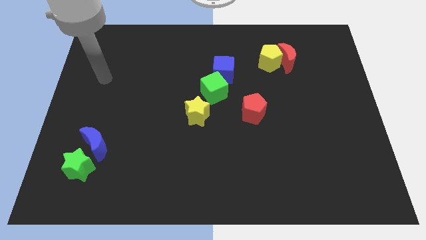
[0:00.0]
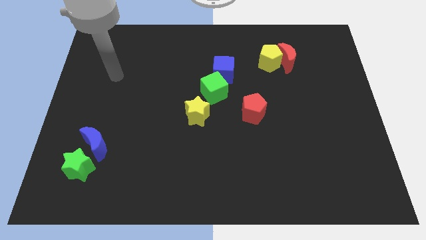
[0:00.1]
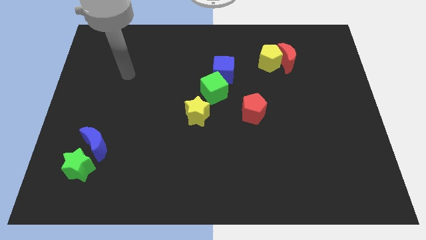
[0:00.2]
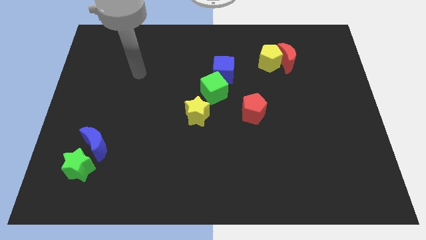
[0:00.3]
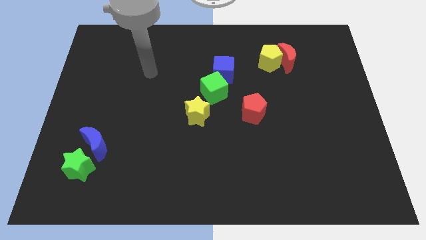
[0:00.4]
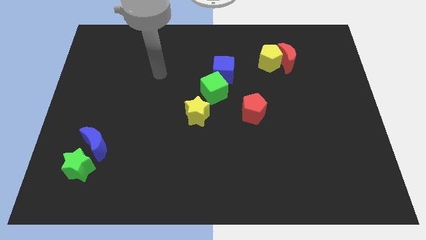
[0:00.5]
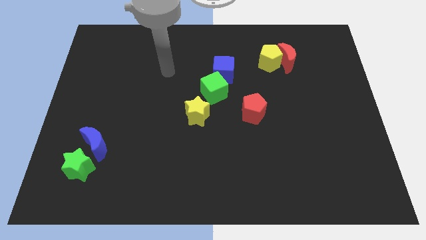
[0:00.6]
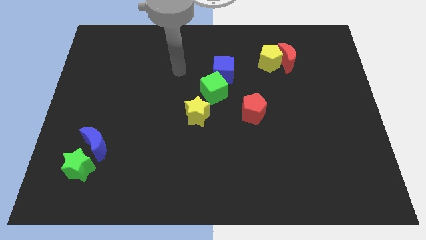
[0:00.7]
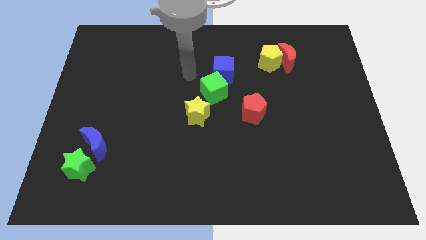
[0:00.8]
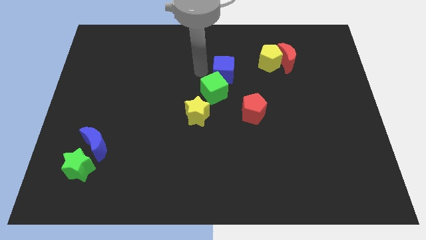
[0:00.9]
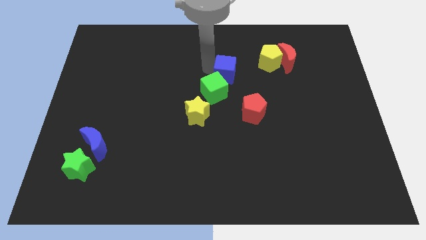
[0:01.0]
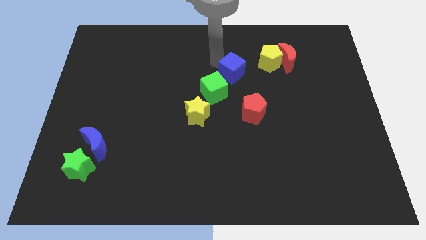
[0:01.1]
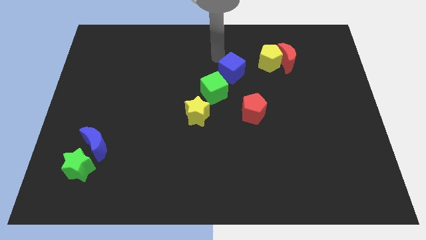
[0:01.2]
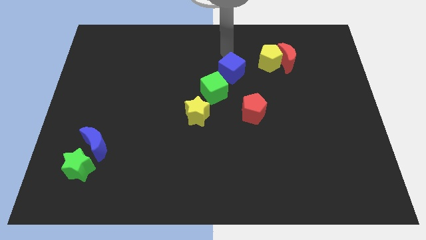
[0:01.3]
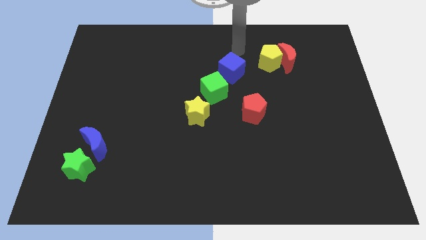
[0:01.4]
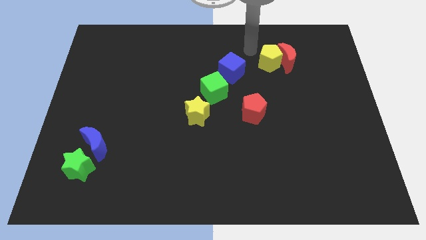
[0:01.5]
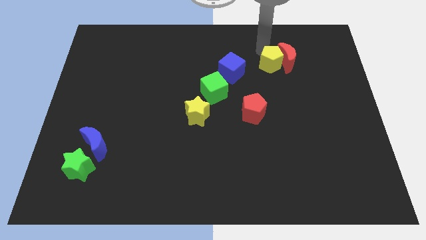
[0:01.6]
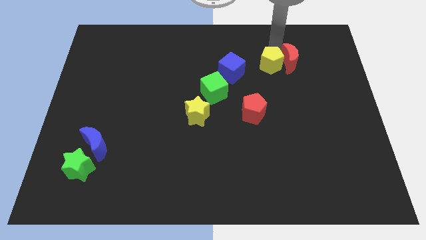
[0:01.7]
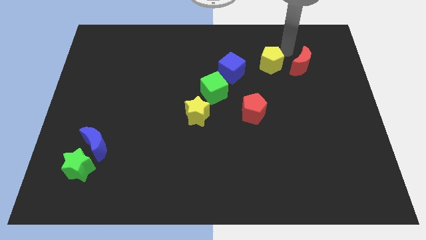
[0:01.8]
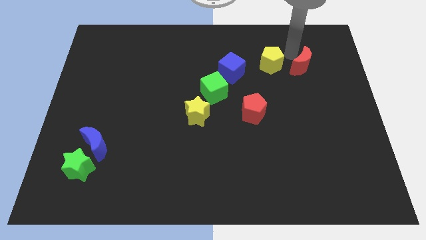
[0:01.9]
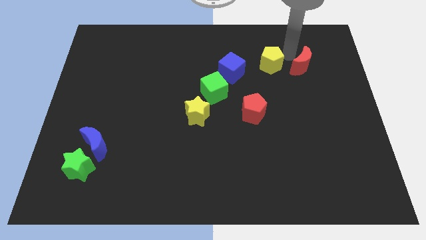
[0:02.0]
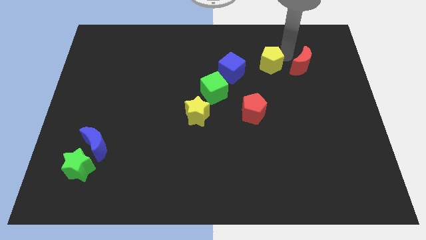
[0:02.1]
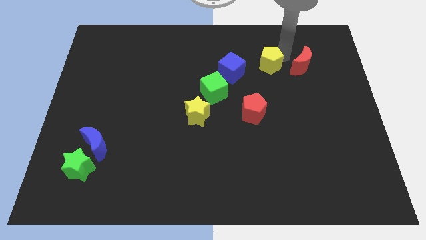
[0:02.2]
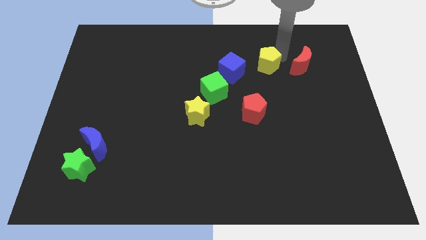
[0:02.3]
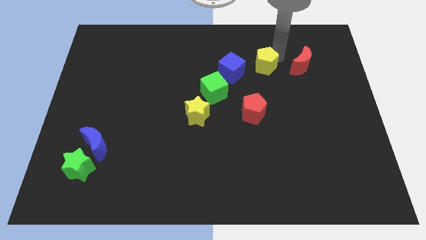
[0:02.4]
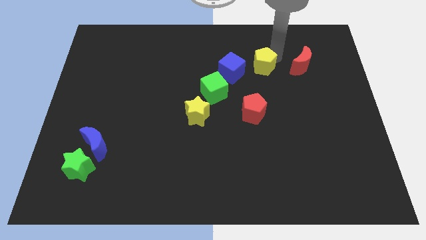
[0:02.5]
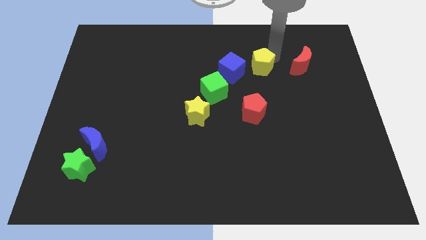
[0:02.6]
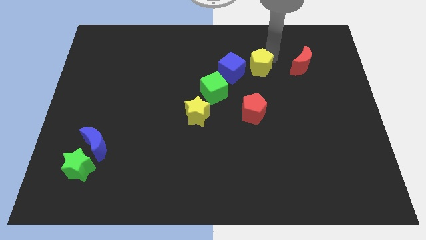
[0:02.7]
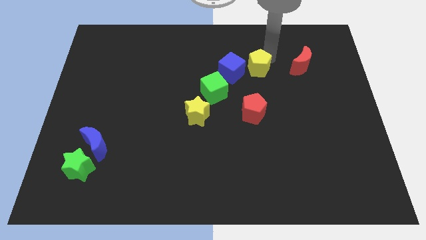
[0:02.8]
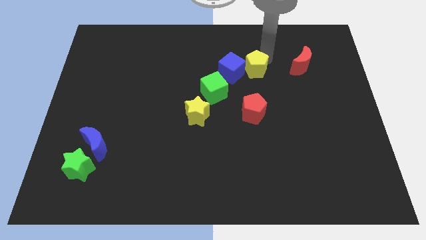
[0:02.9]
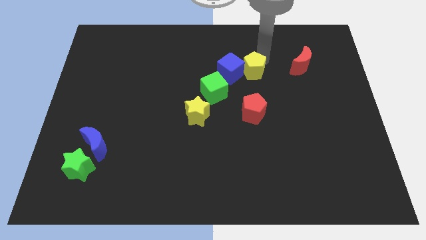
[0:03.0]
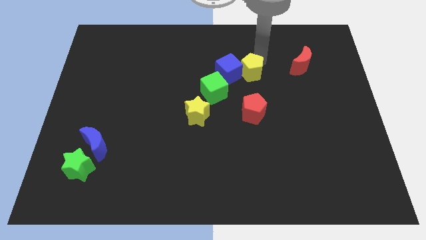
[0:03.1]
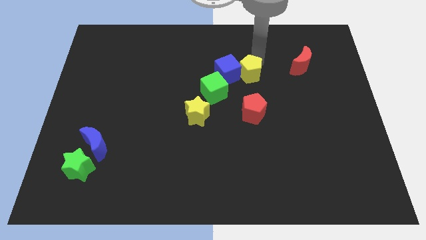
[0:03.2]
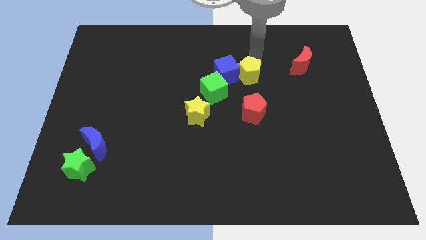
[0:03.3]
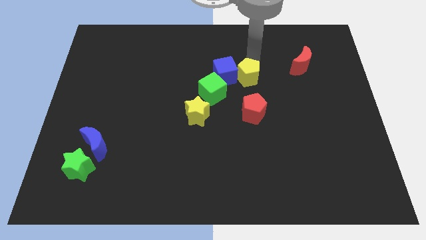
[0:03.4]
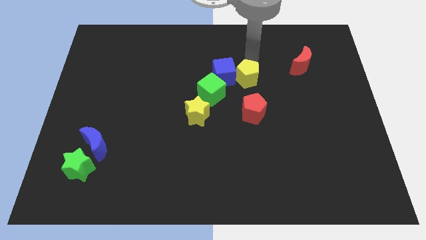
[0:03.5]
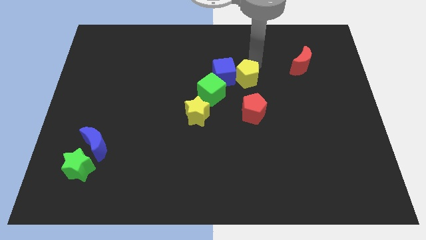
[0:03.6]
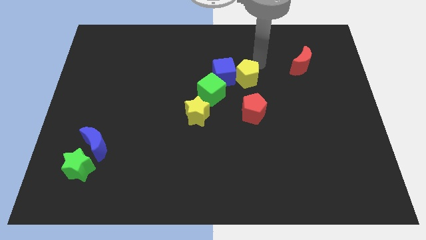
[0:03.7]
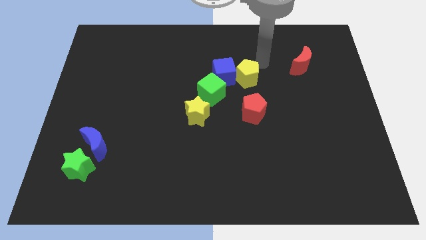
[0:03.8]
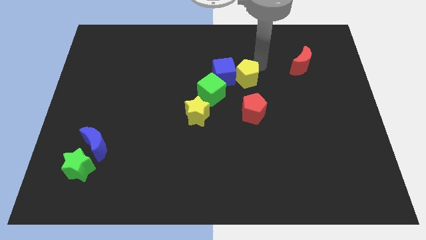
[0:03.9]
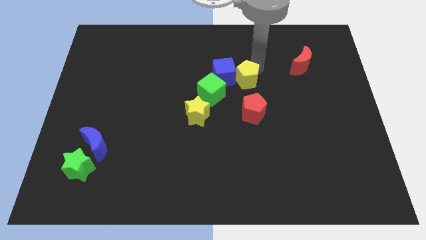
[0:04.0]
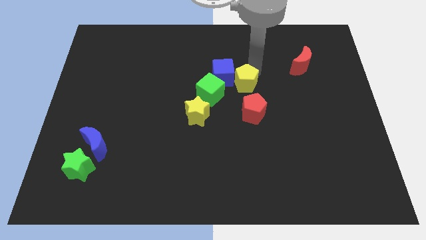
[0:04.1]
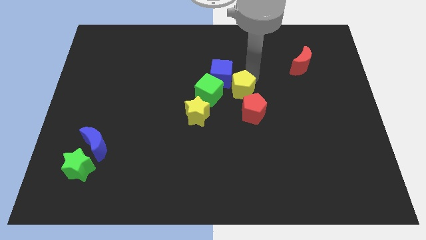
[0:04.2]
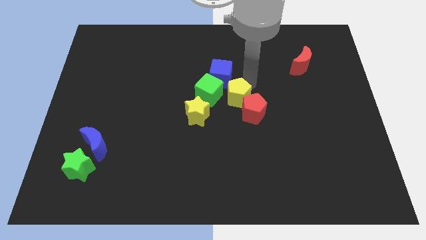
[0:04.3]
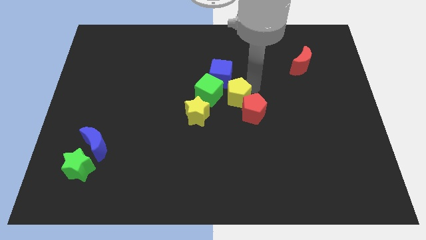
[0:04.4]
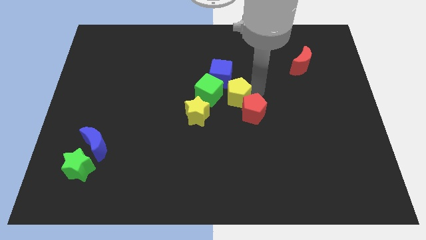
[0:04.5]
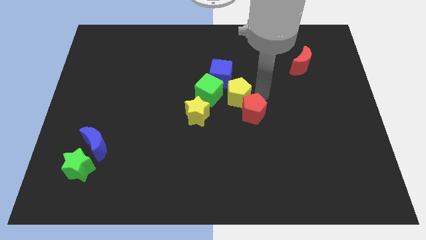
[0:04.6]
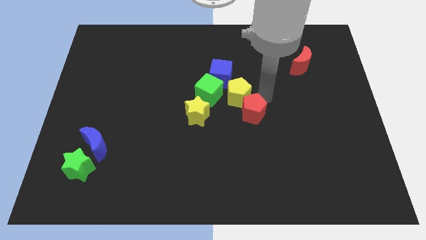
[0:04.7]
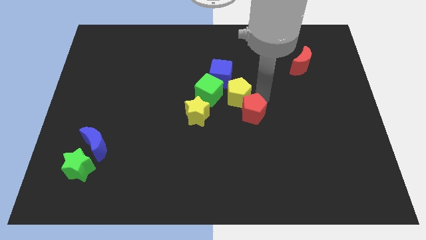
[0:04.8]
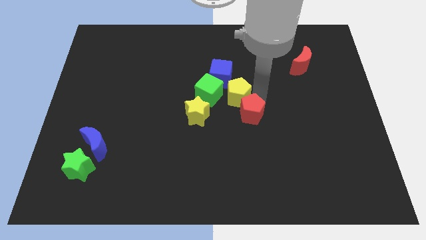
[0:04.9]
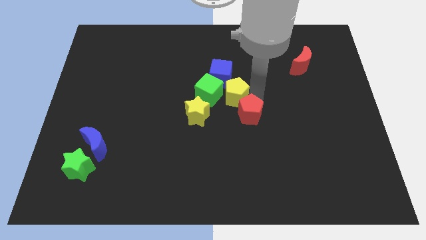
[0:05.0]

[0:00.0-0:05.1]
push the yellow pentagon close to the green cube

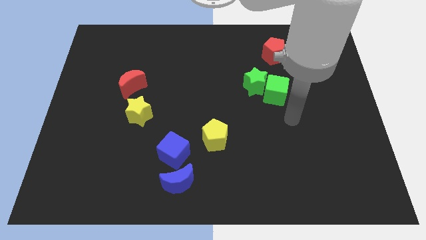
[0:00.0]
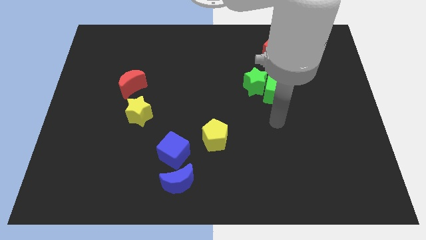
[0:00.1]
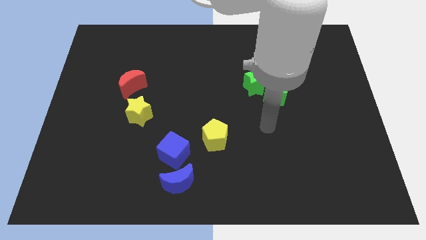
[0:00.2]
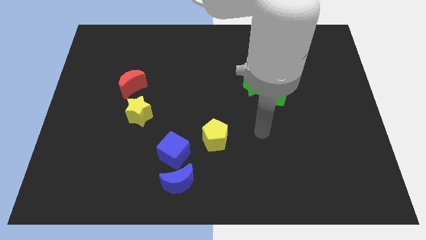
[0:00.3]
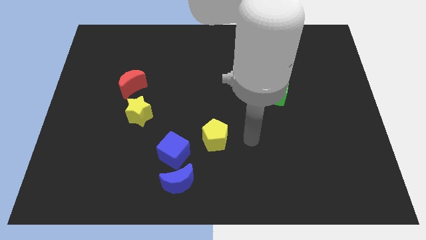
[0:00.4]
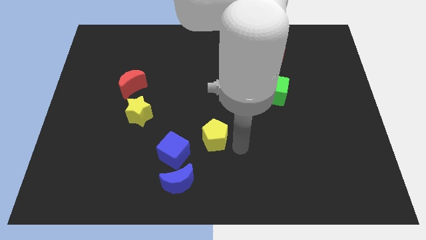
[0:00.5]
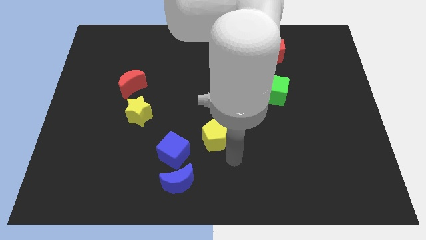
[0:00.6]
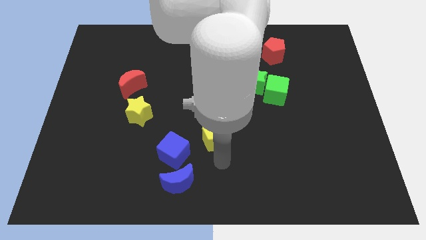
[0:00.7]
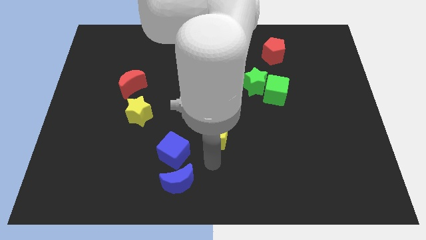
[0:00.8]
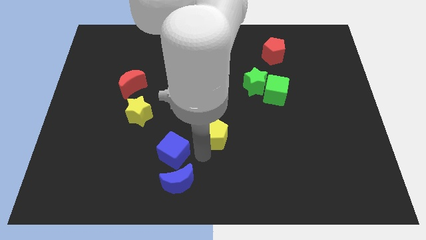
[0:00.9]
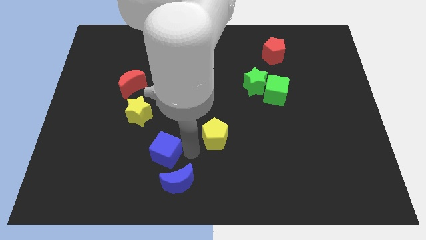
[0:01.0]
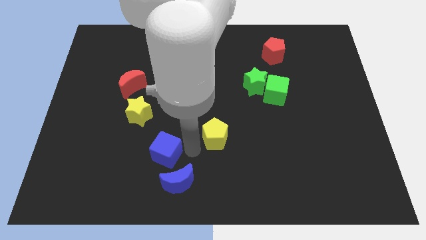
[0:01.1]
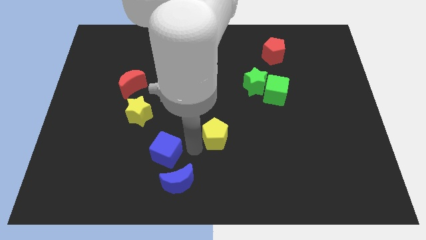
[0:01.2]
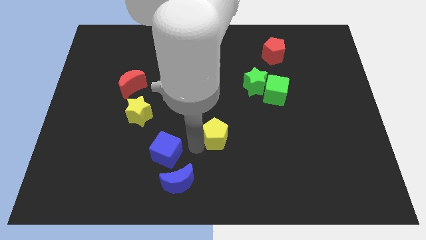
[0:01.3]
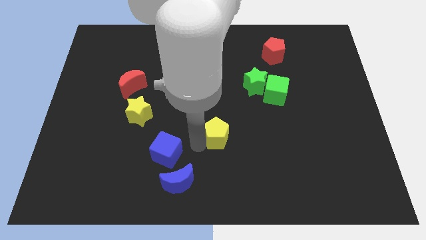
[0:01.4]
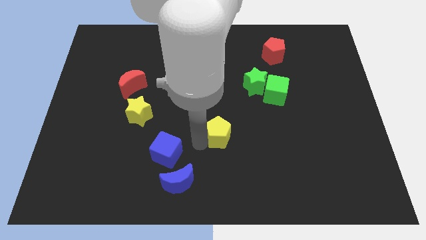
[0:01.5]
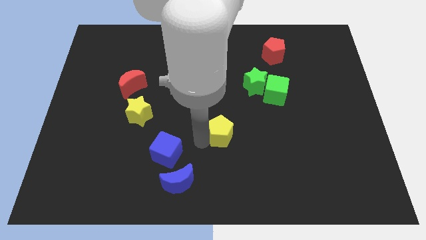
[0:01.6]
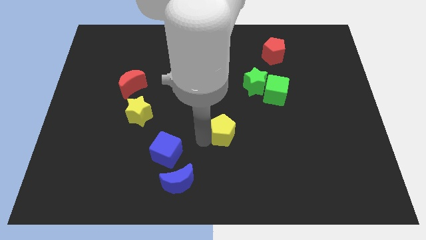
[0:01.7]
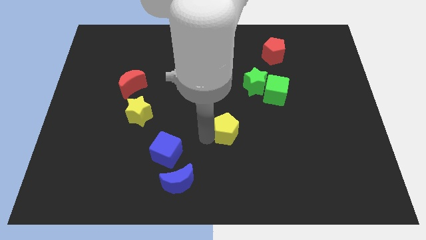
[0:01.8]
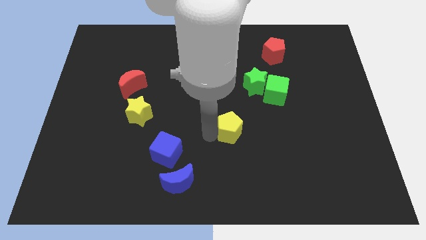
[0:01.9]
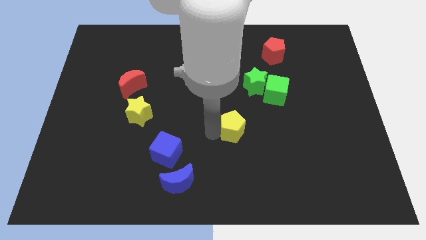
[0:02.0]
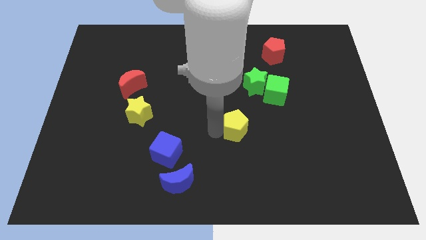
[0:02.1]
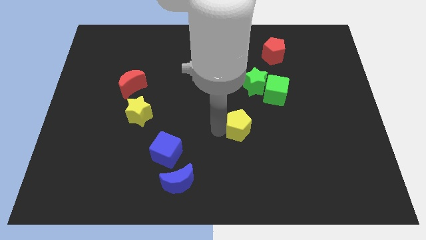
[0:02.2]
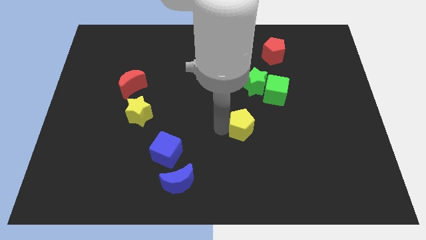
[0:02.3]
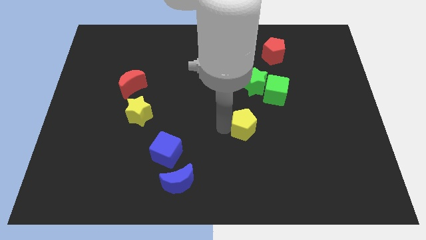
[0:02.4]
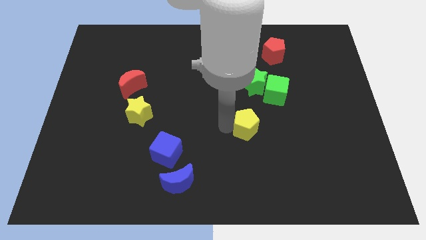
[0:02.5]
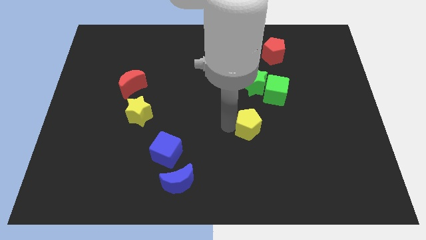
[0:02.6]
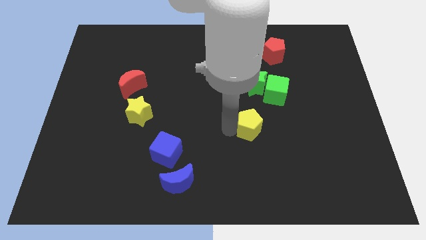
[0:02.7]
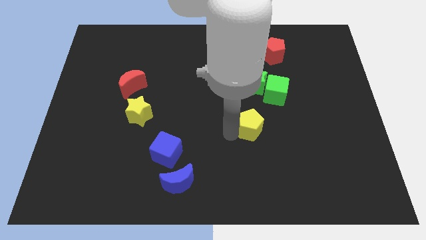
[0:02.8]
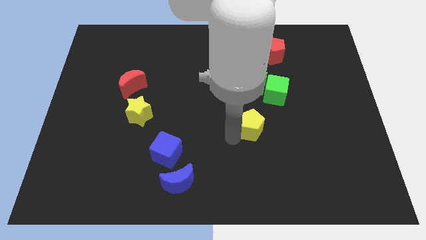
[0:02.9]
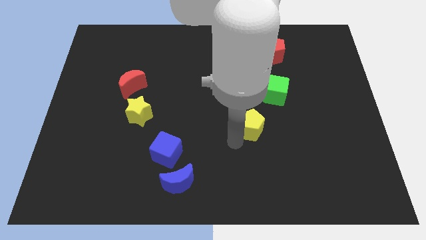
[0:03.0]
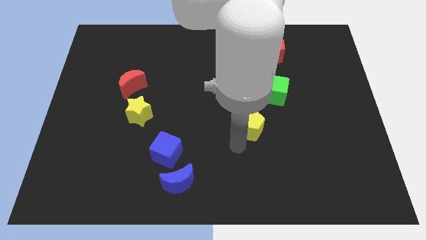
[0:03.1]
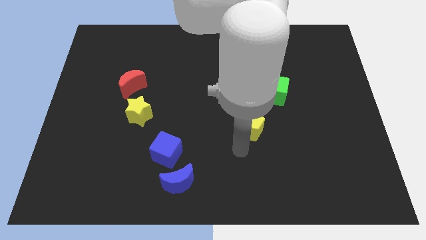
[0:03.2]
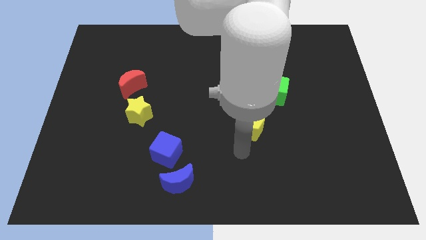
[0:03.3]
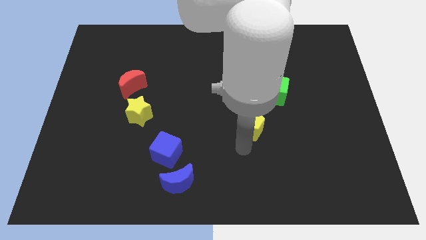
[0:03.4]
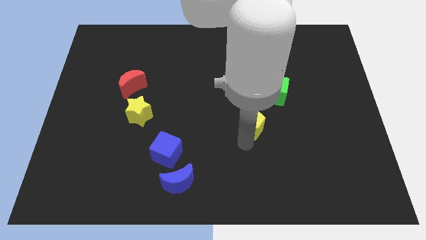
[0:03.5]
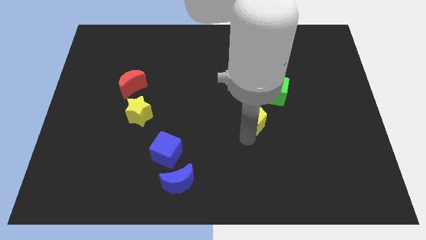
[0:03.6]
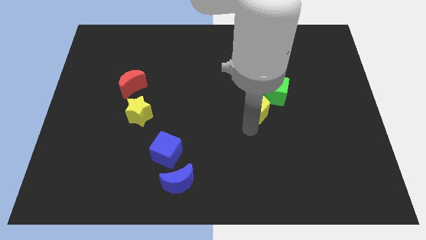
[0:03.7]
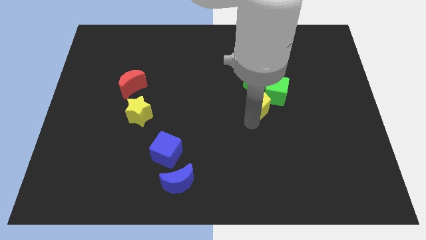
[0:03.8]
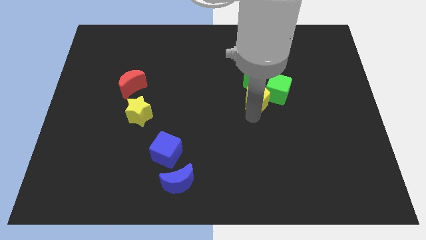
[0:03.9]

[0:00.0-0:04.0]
slide the yellow pentagon next to the green cube
